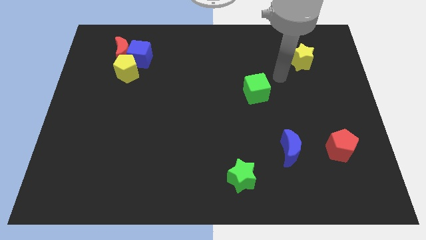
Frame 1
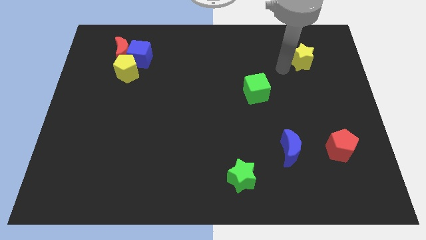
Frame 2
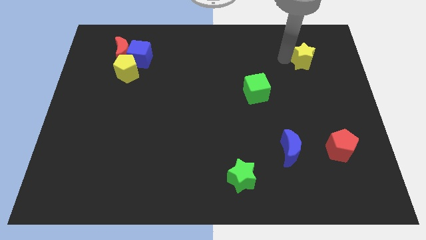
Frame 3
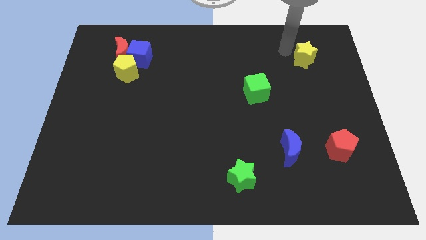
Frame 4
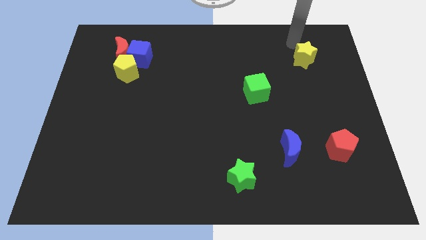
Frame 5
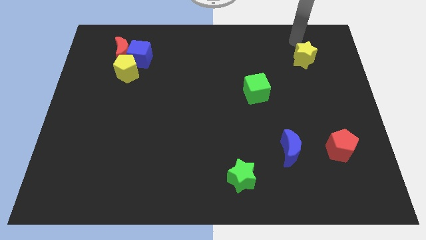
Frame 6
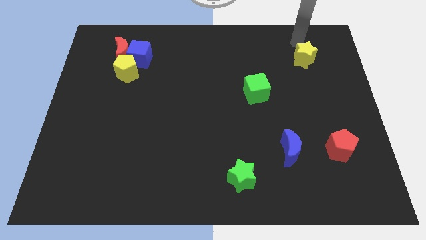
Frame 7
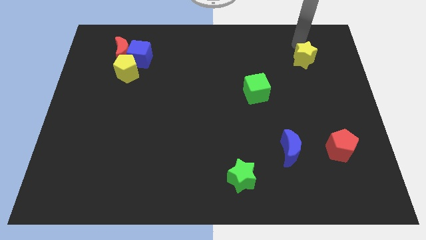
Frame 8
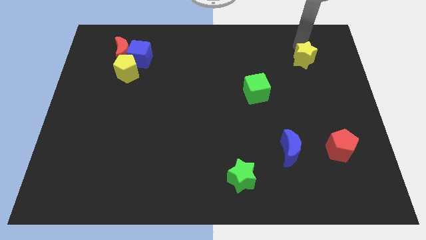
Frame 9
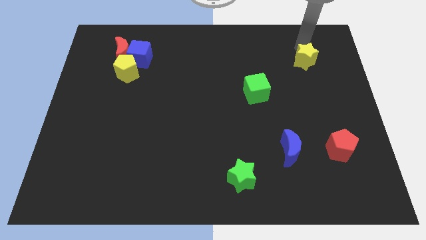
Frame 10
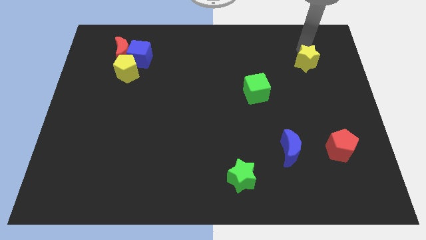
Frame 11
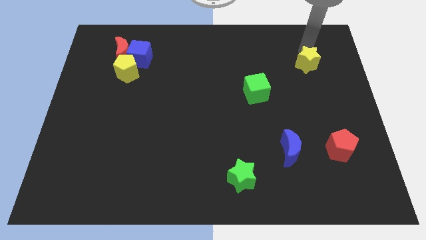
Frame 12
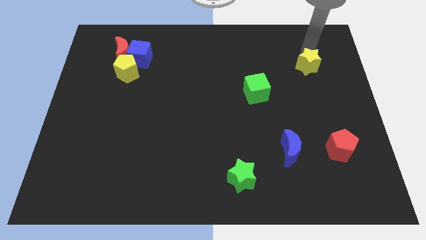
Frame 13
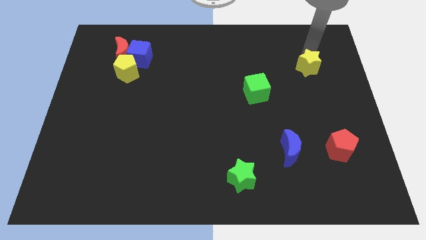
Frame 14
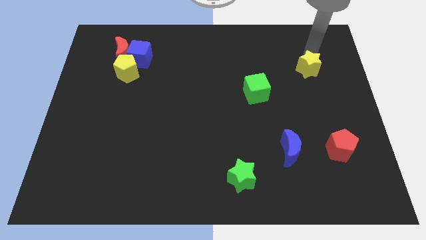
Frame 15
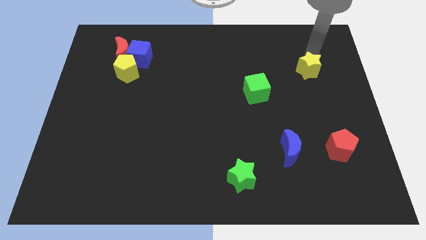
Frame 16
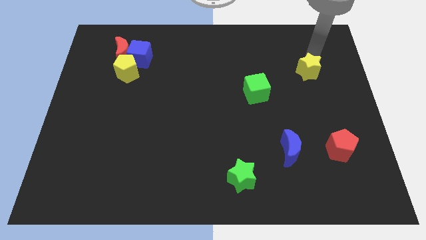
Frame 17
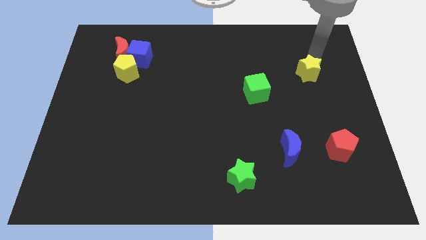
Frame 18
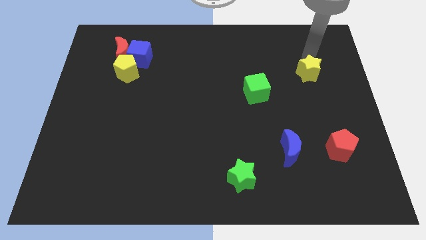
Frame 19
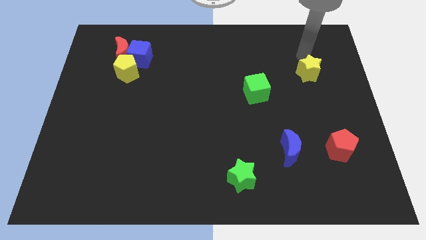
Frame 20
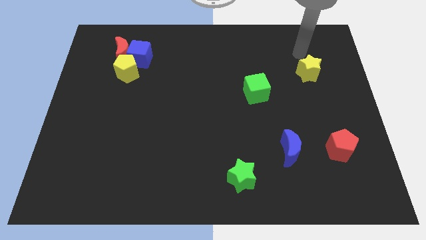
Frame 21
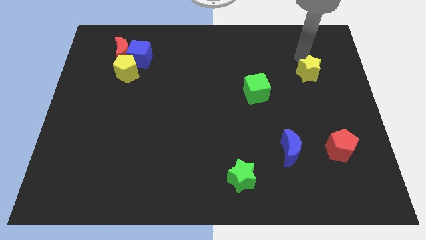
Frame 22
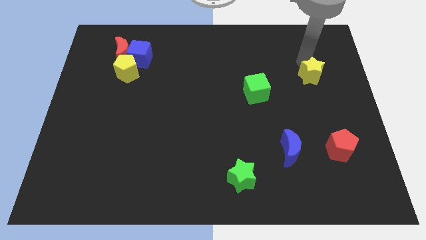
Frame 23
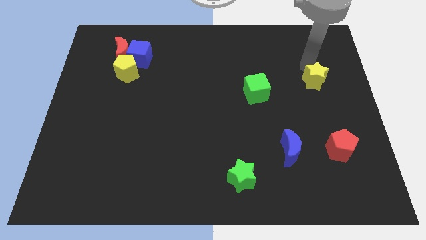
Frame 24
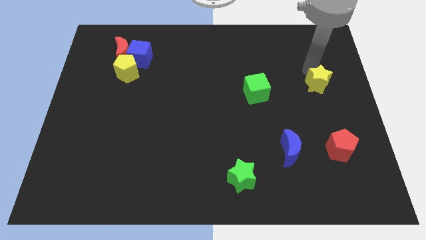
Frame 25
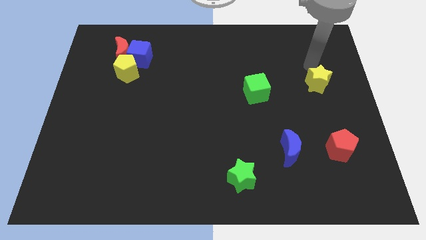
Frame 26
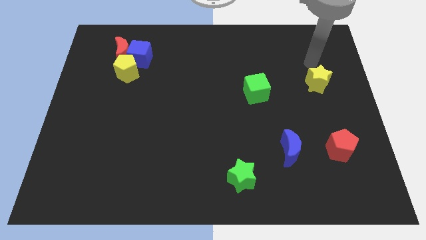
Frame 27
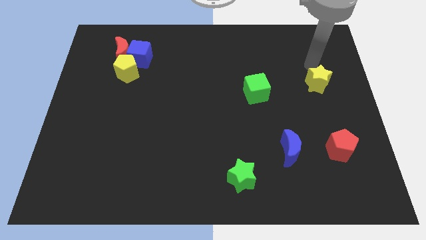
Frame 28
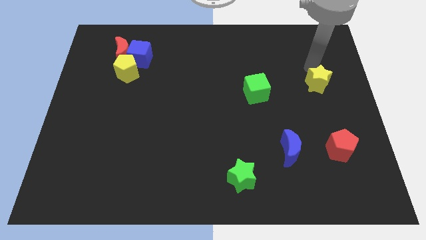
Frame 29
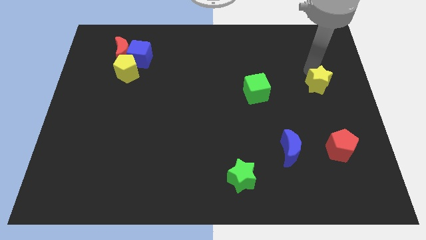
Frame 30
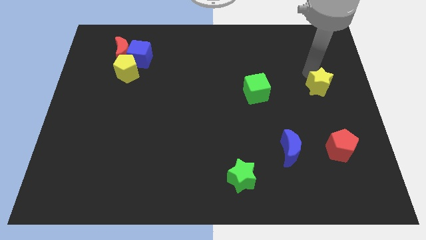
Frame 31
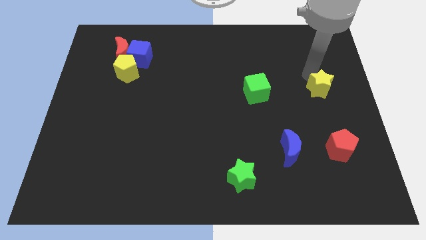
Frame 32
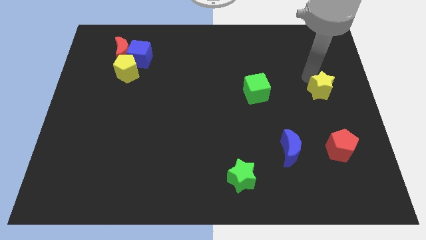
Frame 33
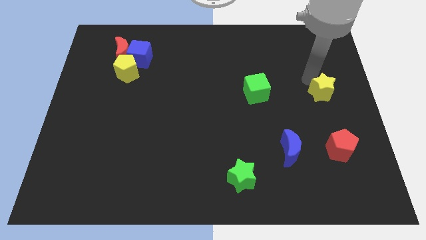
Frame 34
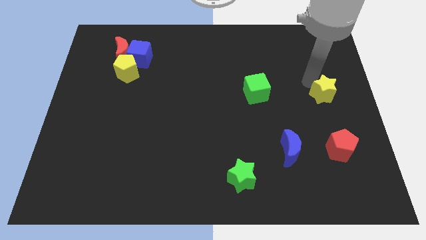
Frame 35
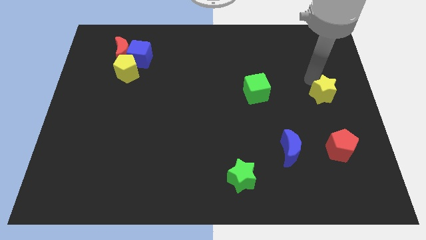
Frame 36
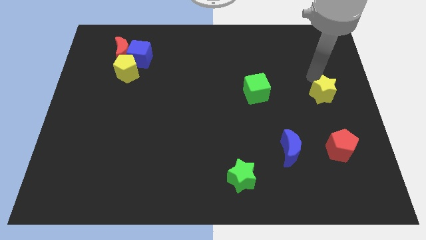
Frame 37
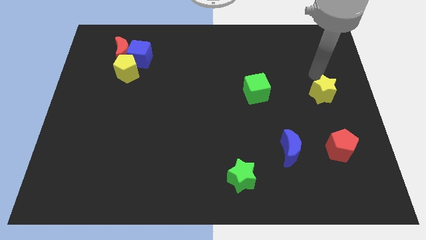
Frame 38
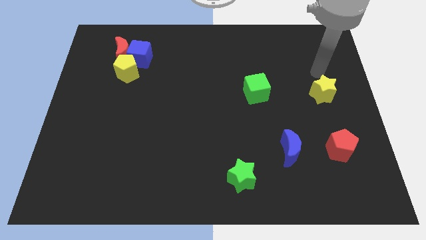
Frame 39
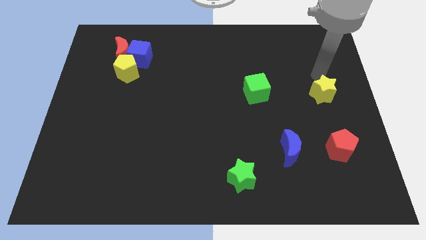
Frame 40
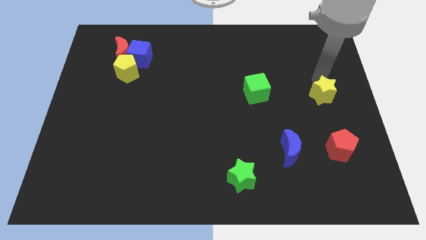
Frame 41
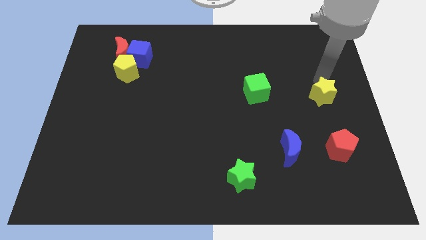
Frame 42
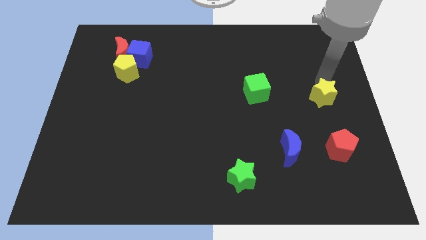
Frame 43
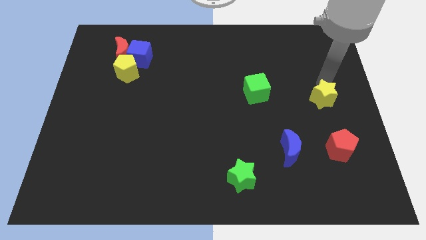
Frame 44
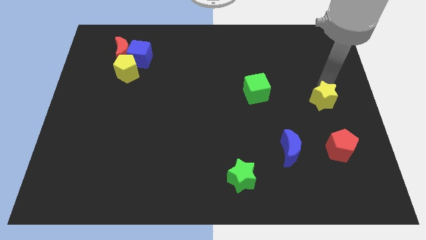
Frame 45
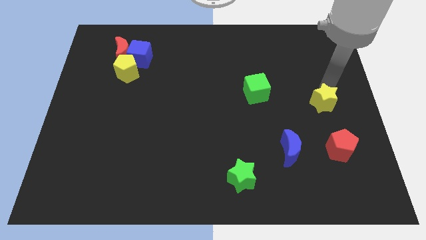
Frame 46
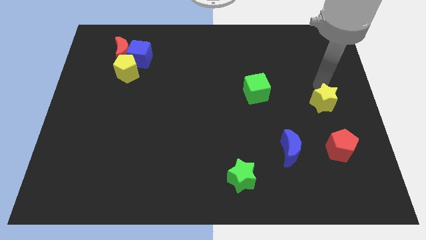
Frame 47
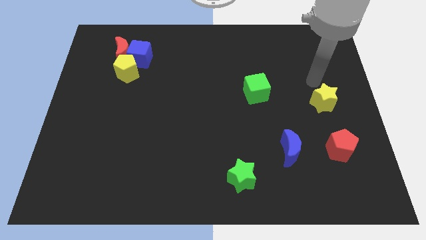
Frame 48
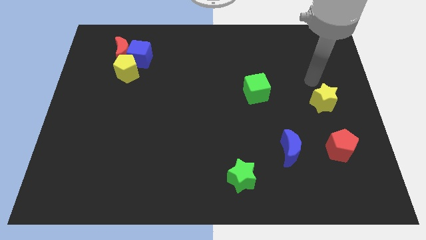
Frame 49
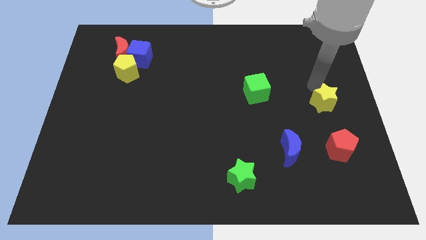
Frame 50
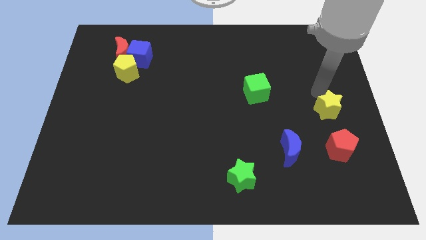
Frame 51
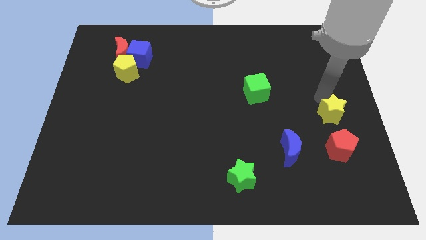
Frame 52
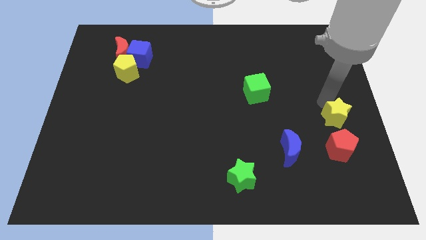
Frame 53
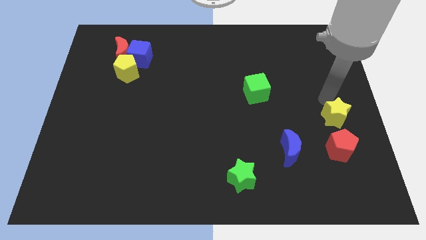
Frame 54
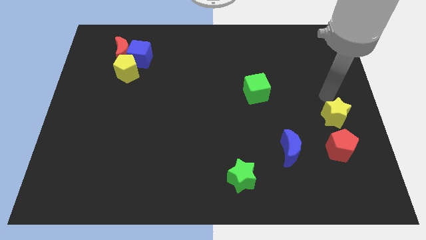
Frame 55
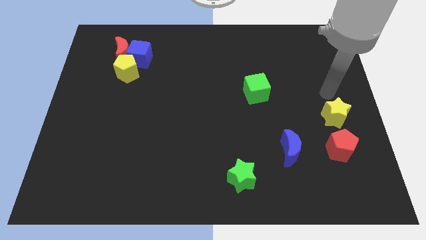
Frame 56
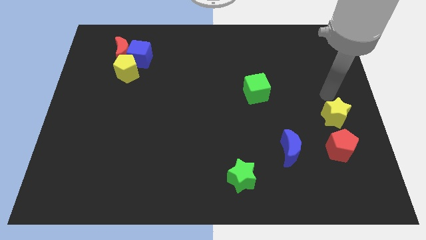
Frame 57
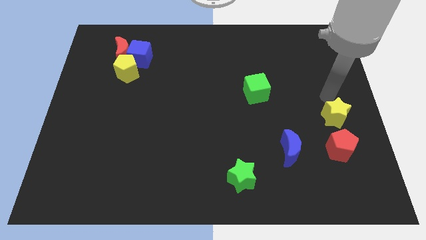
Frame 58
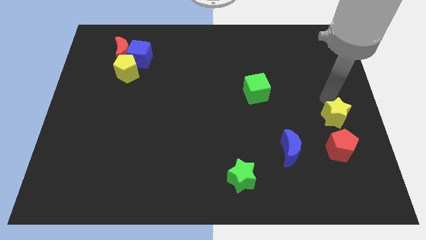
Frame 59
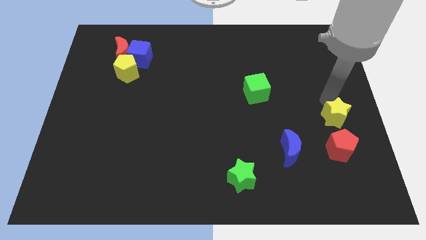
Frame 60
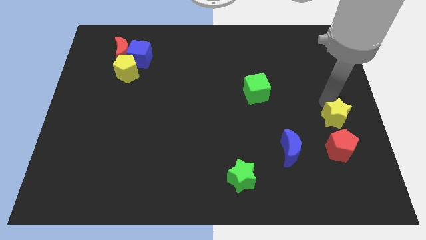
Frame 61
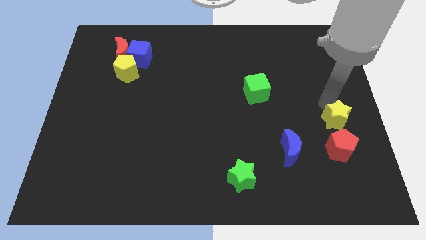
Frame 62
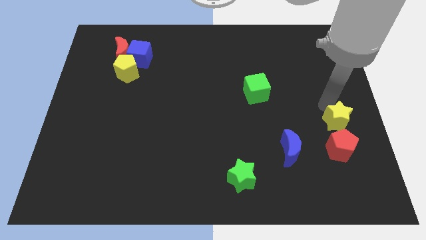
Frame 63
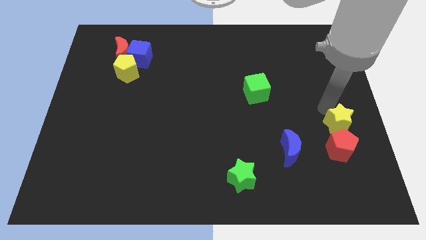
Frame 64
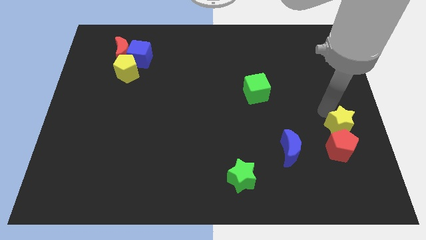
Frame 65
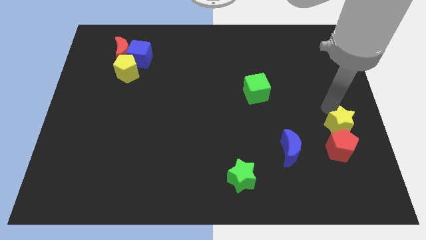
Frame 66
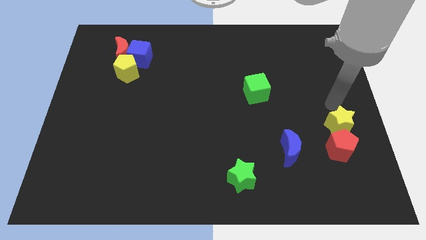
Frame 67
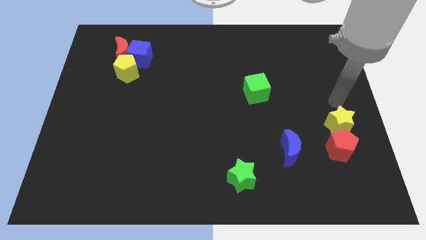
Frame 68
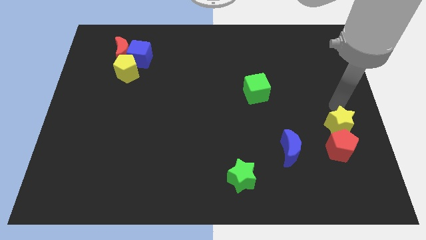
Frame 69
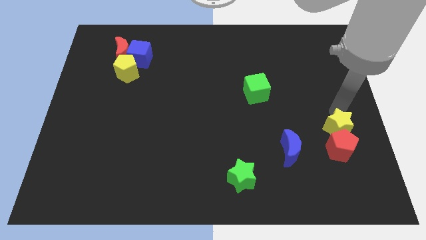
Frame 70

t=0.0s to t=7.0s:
move the yellow star close to the red pentagon
